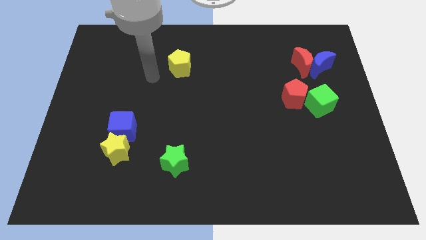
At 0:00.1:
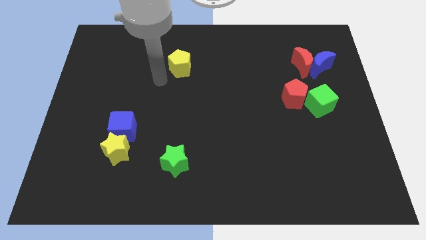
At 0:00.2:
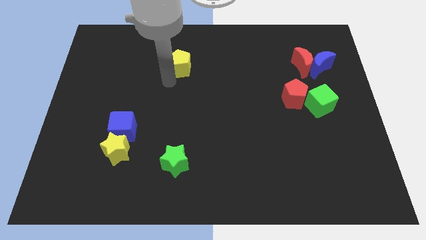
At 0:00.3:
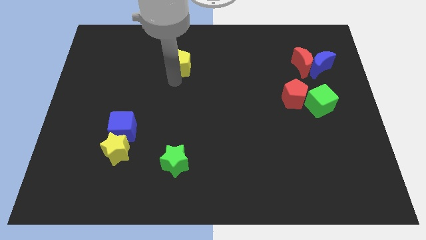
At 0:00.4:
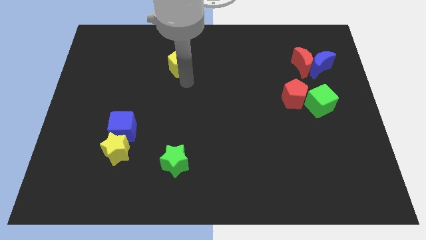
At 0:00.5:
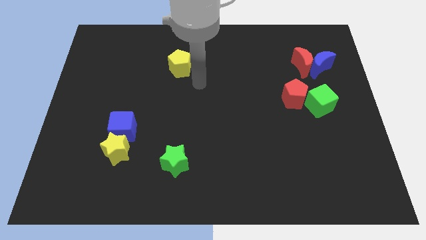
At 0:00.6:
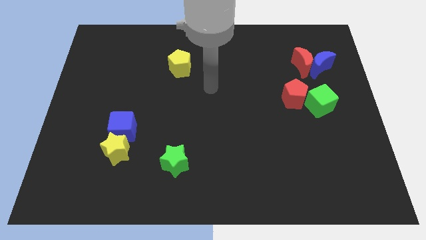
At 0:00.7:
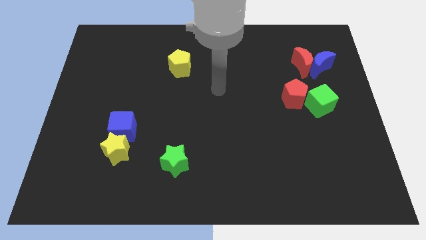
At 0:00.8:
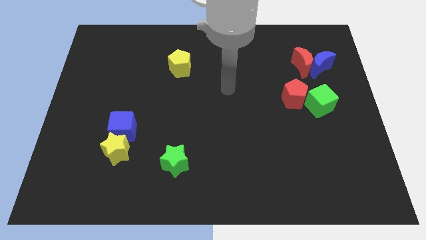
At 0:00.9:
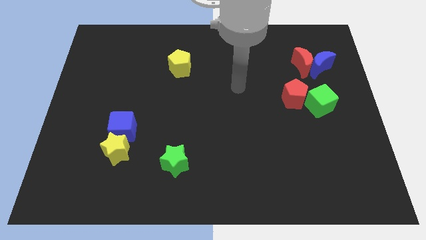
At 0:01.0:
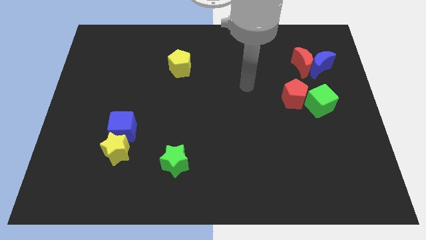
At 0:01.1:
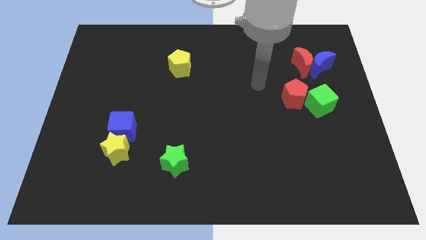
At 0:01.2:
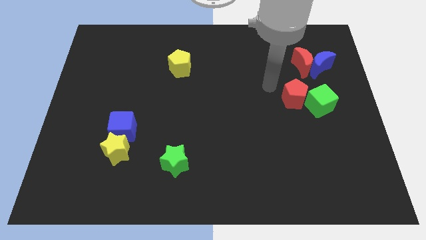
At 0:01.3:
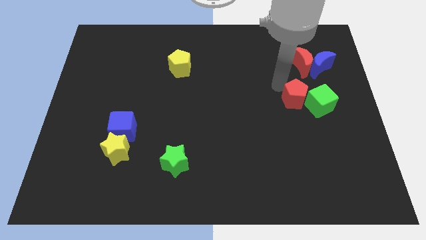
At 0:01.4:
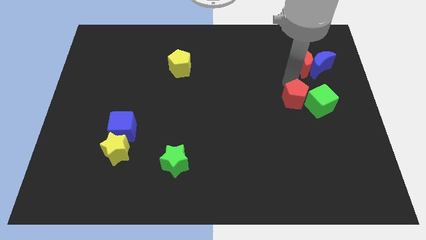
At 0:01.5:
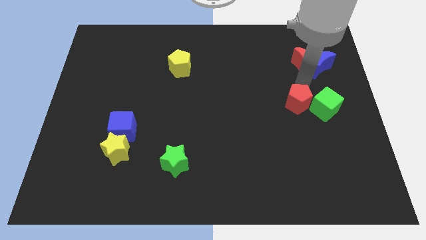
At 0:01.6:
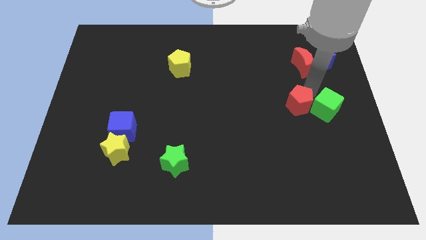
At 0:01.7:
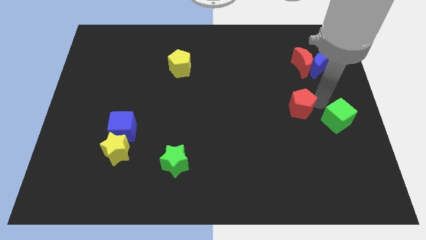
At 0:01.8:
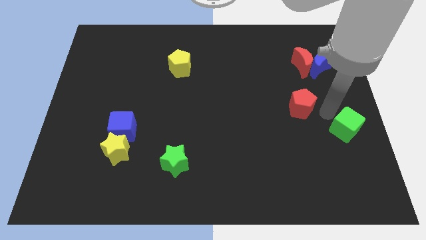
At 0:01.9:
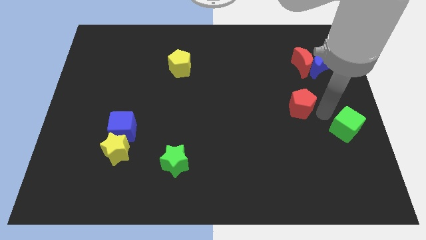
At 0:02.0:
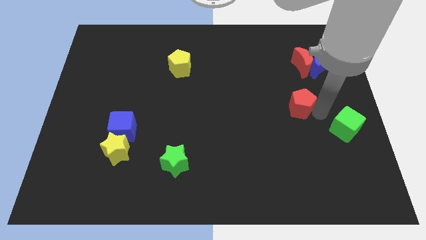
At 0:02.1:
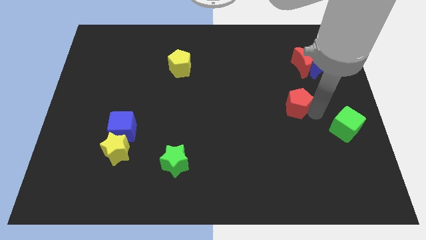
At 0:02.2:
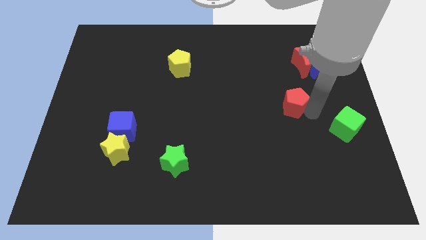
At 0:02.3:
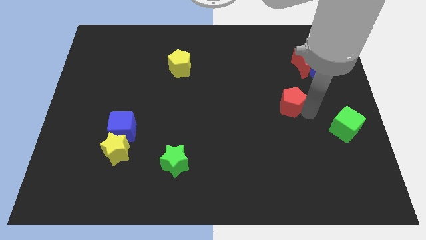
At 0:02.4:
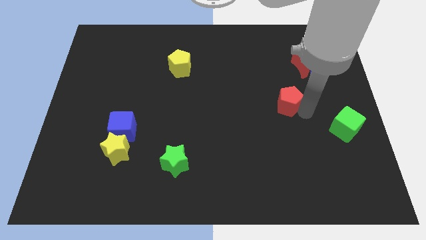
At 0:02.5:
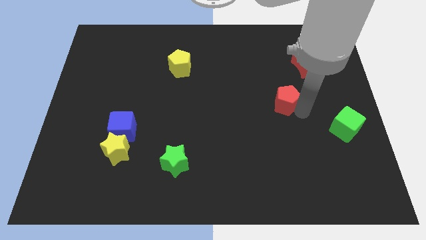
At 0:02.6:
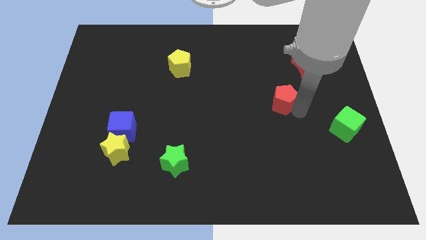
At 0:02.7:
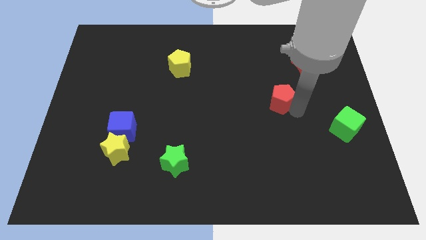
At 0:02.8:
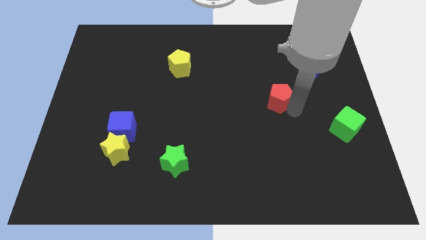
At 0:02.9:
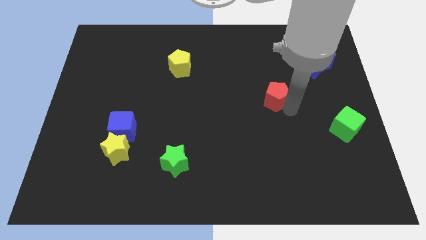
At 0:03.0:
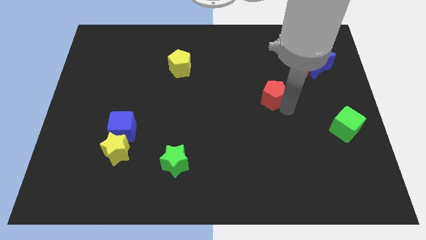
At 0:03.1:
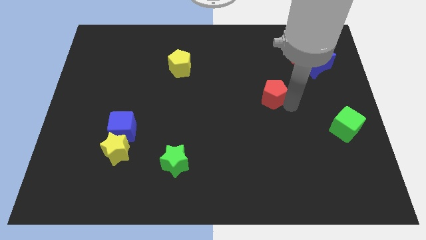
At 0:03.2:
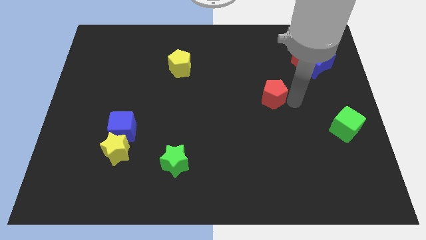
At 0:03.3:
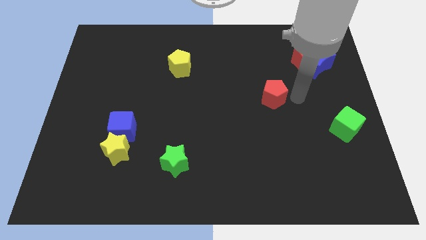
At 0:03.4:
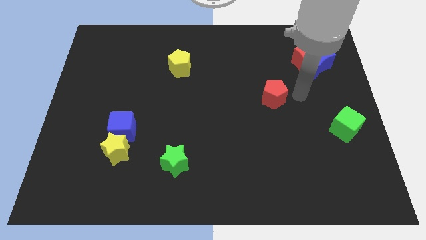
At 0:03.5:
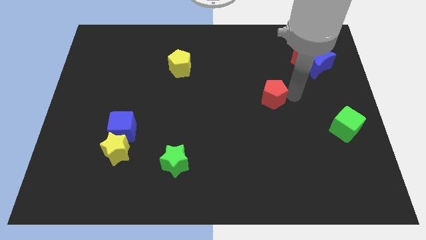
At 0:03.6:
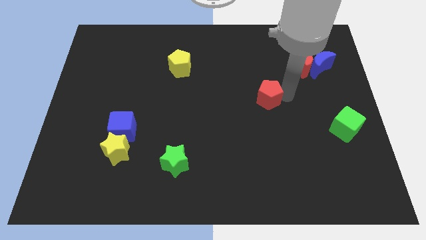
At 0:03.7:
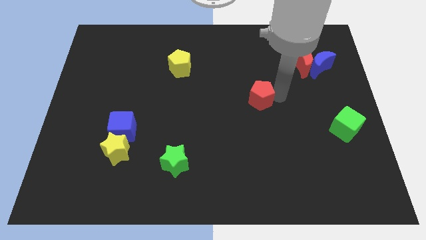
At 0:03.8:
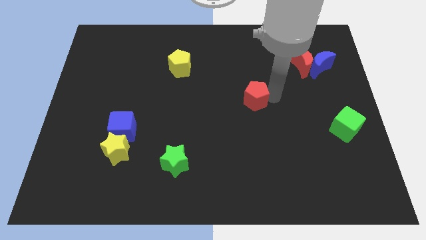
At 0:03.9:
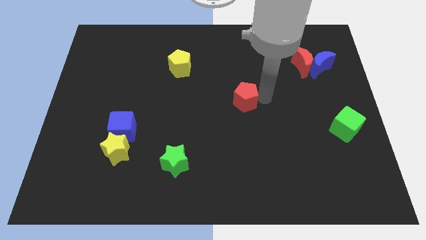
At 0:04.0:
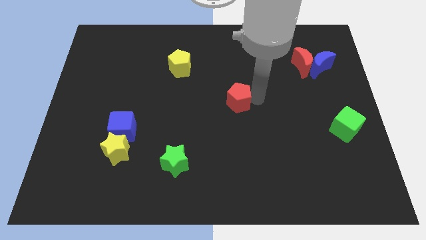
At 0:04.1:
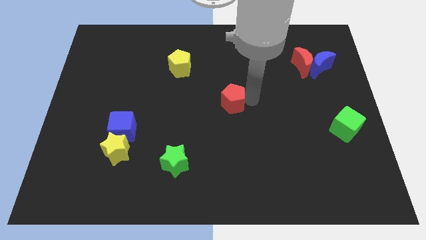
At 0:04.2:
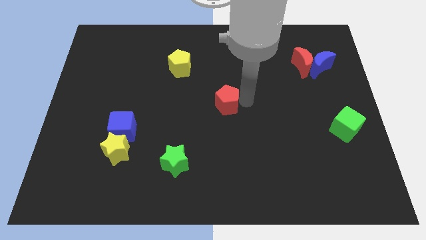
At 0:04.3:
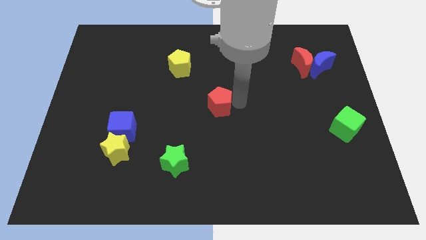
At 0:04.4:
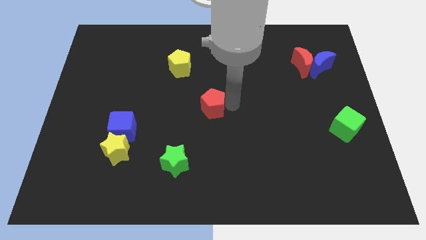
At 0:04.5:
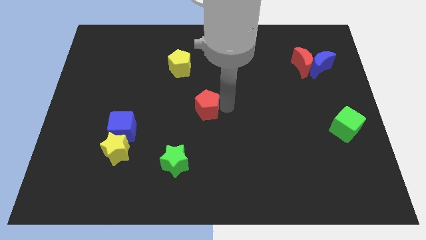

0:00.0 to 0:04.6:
push the red pentagon left

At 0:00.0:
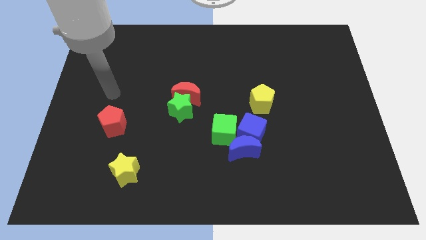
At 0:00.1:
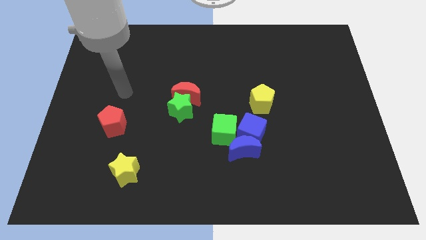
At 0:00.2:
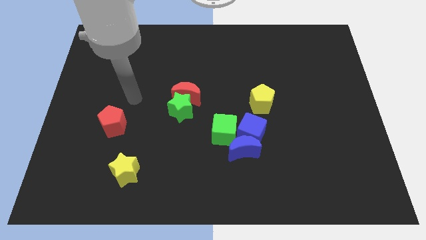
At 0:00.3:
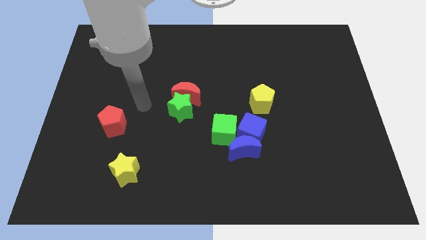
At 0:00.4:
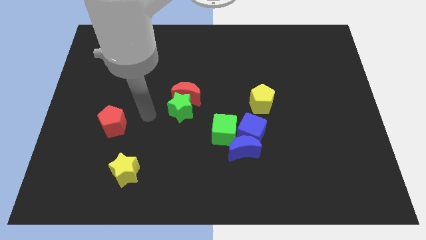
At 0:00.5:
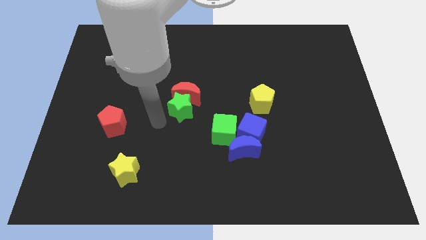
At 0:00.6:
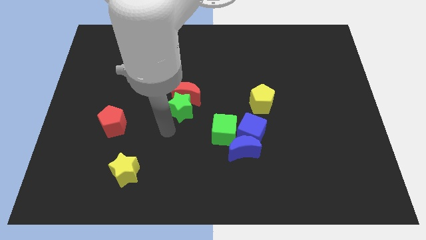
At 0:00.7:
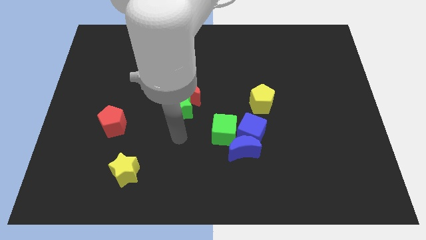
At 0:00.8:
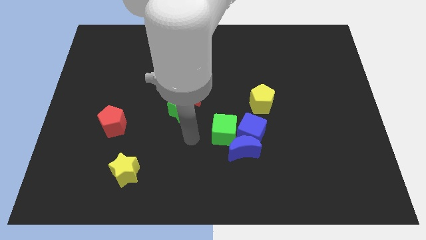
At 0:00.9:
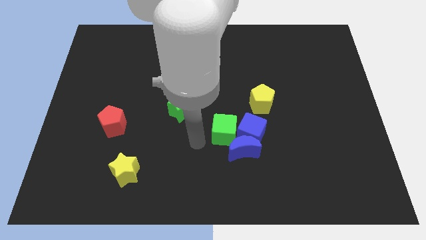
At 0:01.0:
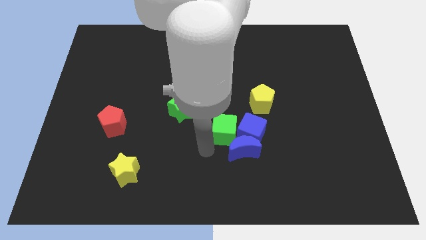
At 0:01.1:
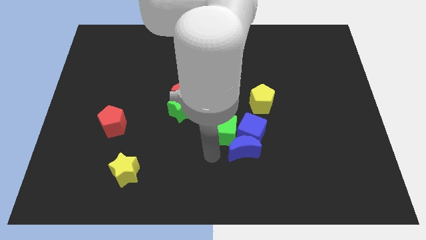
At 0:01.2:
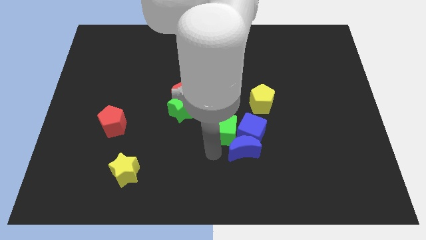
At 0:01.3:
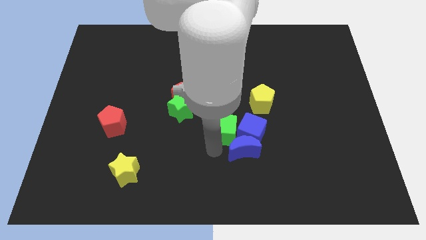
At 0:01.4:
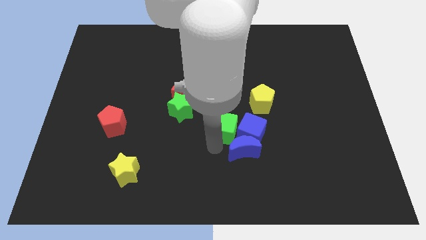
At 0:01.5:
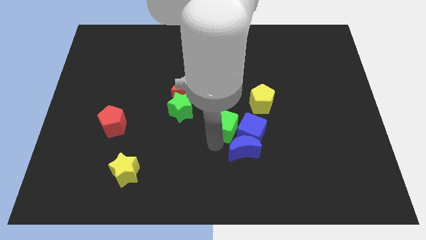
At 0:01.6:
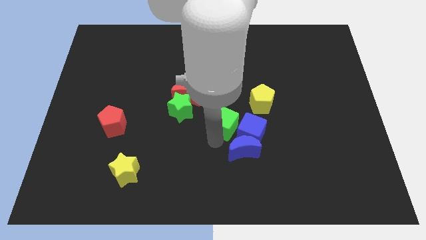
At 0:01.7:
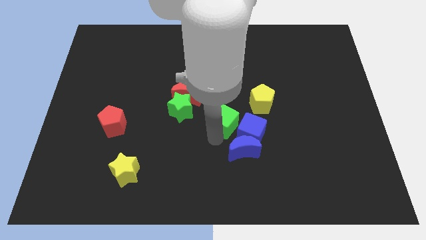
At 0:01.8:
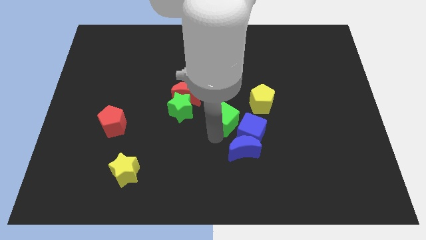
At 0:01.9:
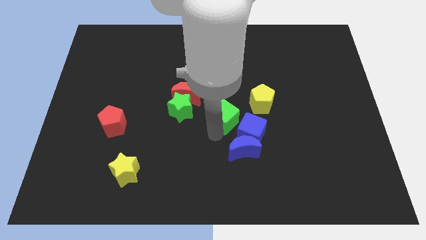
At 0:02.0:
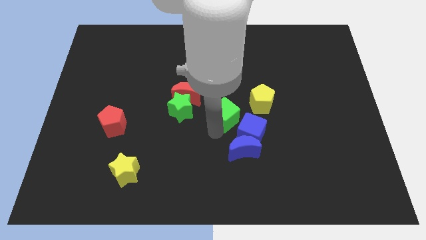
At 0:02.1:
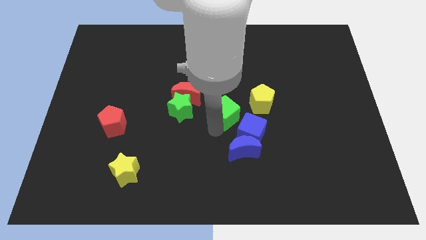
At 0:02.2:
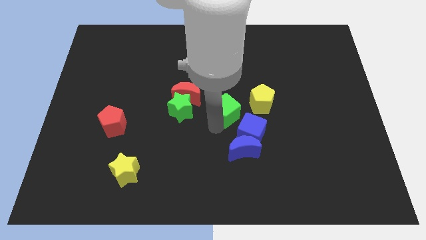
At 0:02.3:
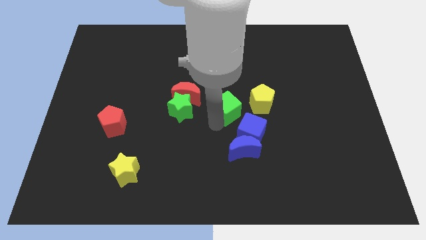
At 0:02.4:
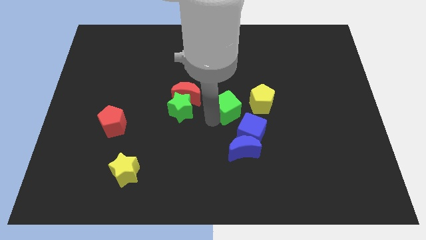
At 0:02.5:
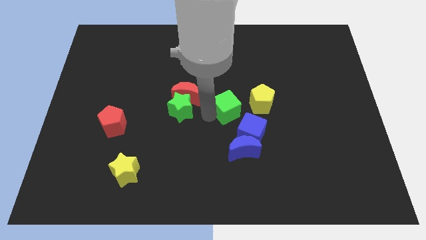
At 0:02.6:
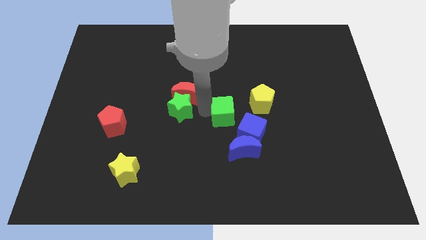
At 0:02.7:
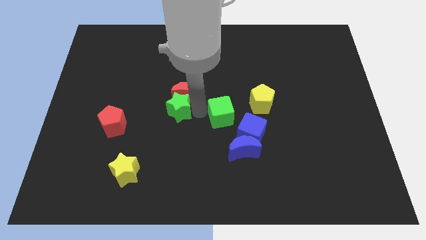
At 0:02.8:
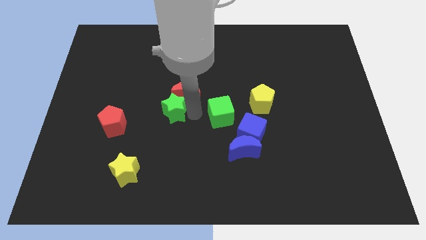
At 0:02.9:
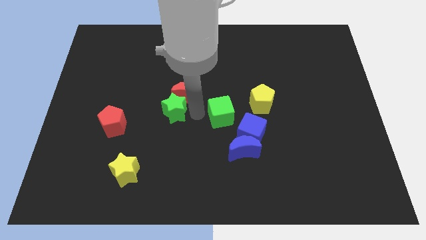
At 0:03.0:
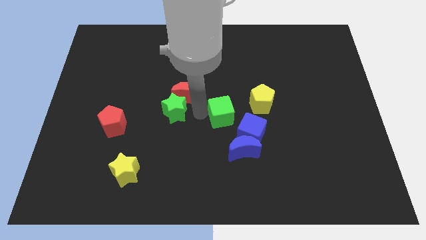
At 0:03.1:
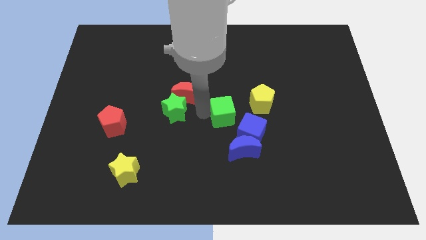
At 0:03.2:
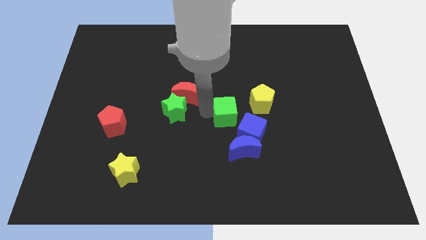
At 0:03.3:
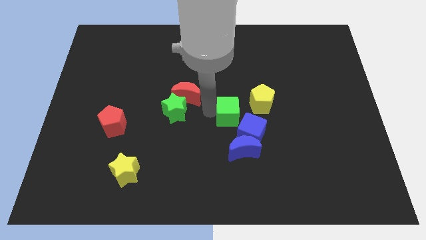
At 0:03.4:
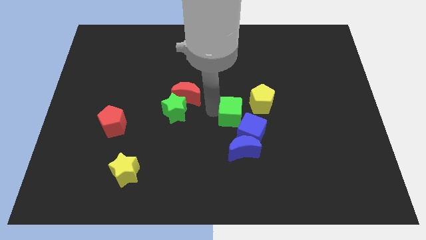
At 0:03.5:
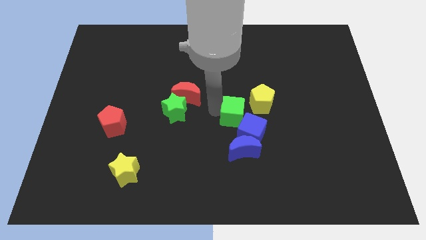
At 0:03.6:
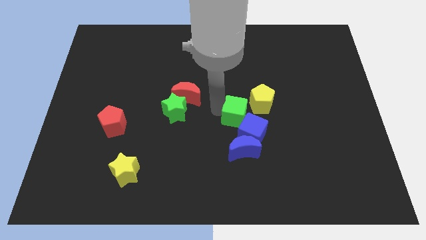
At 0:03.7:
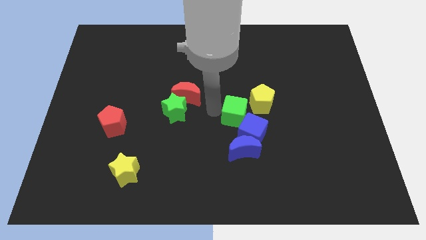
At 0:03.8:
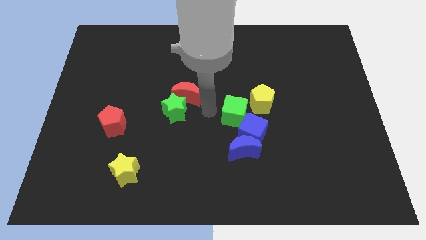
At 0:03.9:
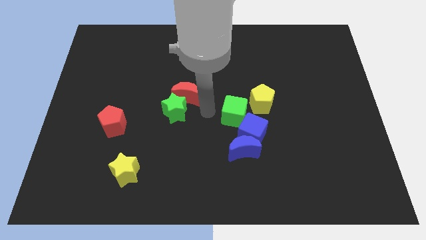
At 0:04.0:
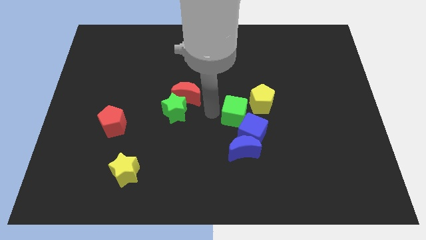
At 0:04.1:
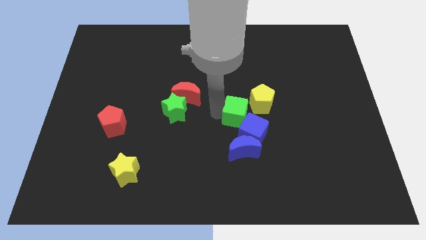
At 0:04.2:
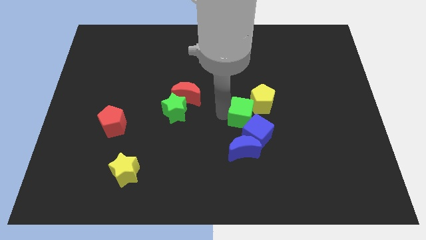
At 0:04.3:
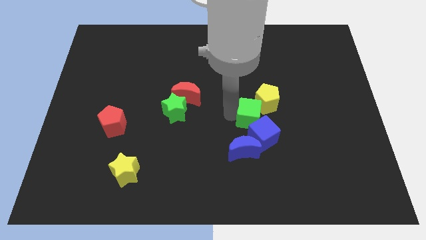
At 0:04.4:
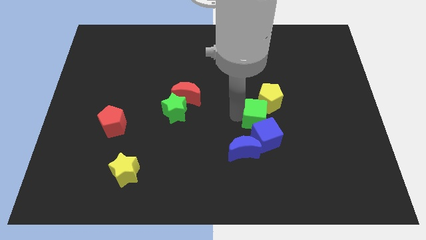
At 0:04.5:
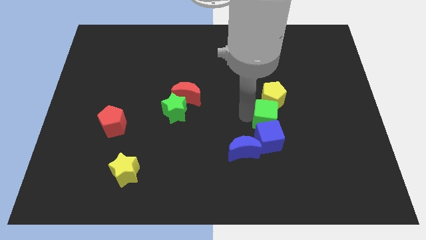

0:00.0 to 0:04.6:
slightly push the green cube to the right
